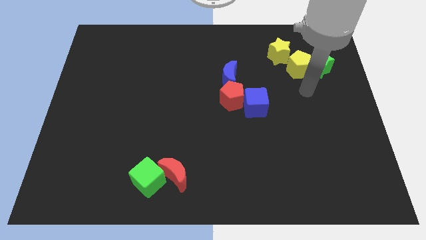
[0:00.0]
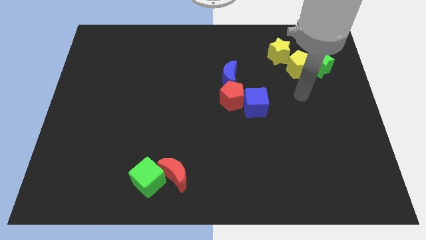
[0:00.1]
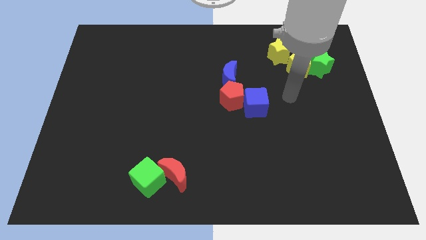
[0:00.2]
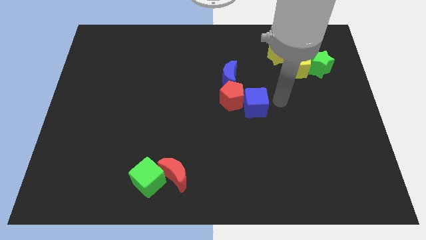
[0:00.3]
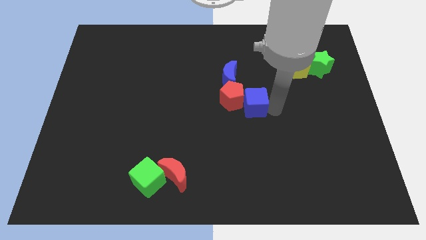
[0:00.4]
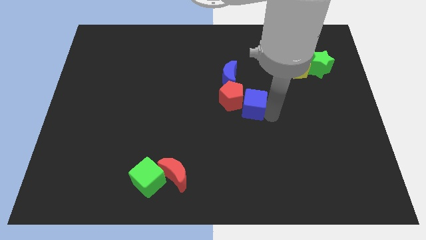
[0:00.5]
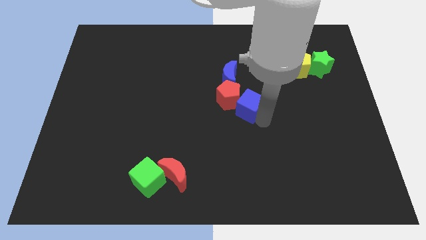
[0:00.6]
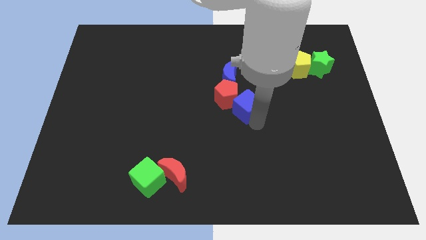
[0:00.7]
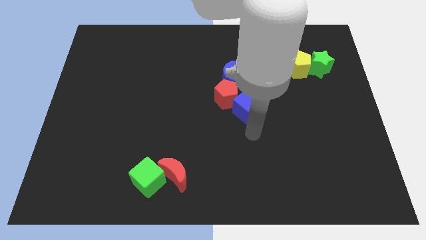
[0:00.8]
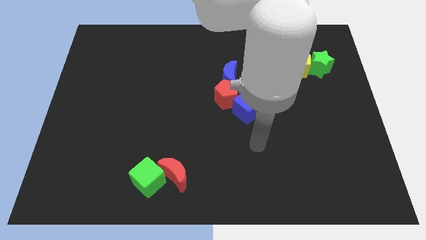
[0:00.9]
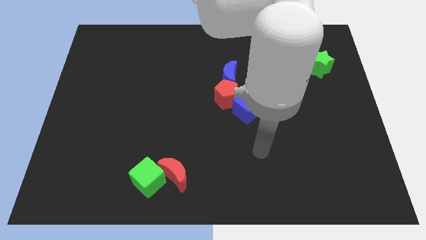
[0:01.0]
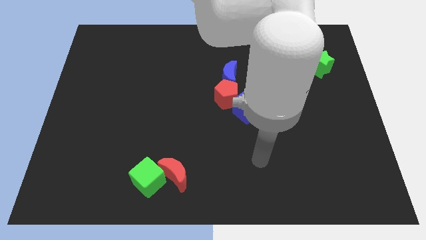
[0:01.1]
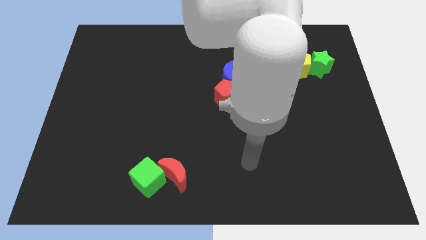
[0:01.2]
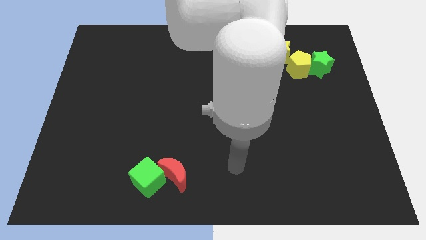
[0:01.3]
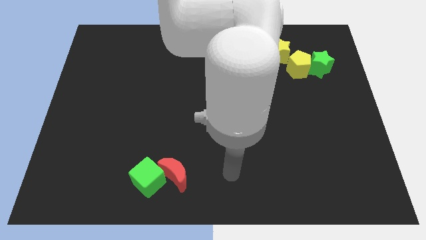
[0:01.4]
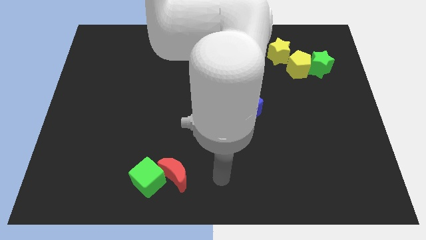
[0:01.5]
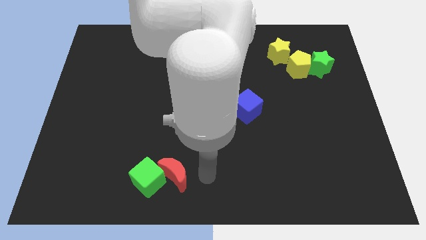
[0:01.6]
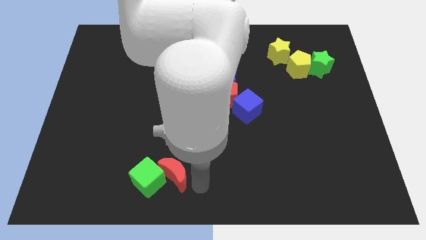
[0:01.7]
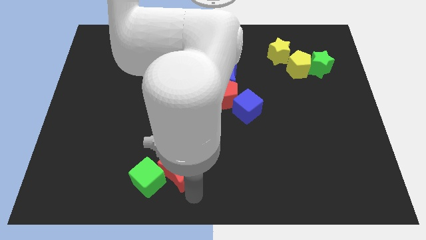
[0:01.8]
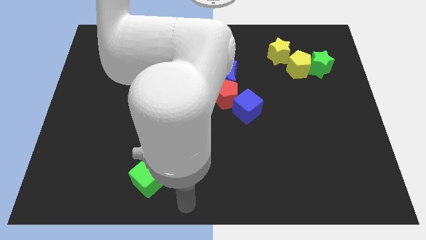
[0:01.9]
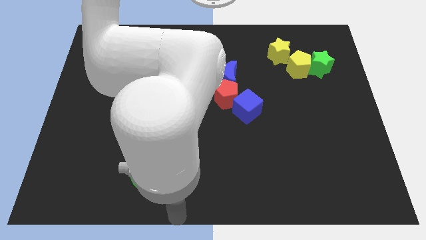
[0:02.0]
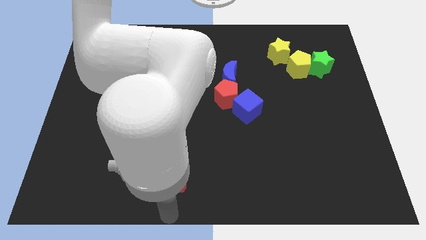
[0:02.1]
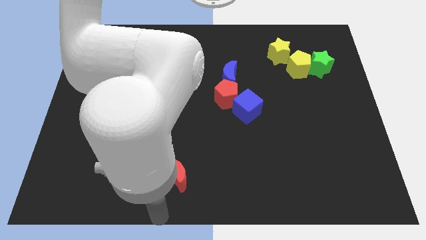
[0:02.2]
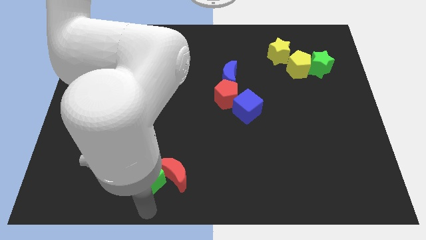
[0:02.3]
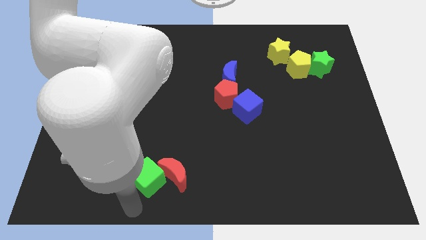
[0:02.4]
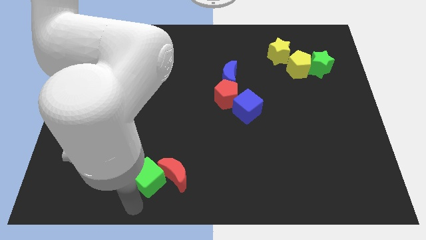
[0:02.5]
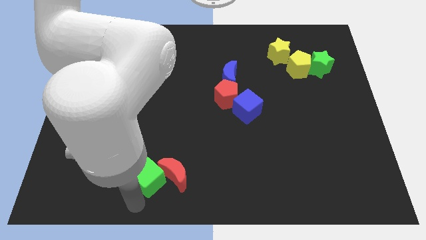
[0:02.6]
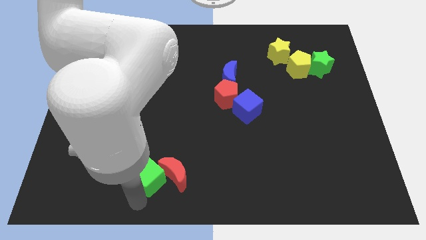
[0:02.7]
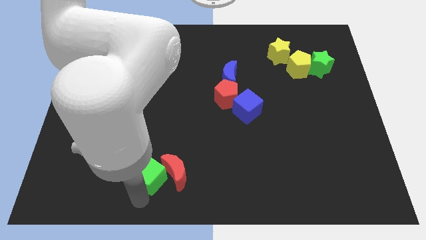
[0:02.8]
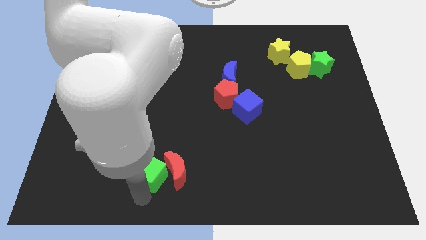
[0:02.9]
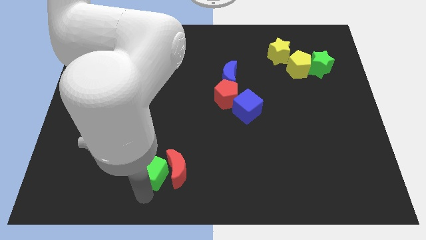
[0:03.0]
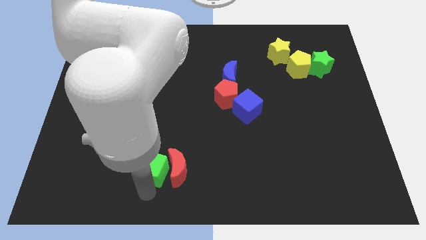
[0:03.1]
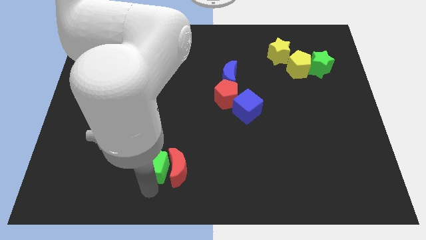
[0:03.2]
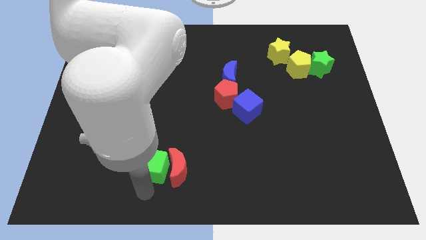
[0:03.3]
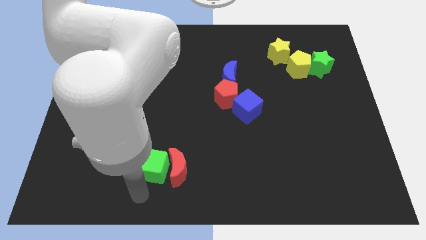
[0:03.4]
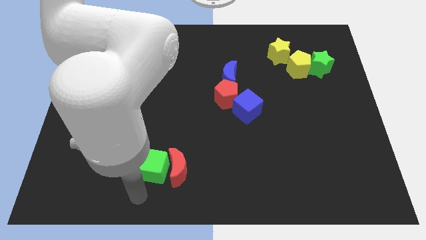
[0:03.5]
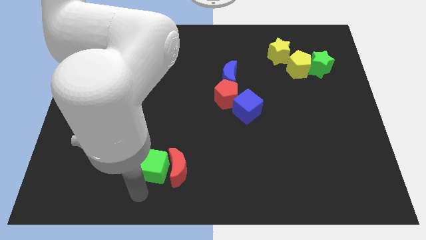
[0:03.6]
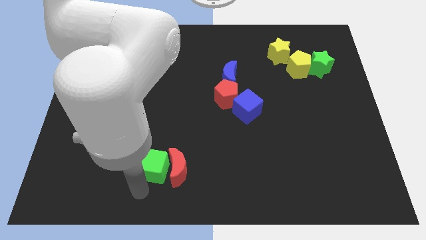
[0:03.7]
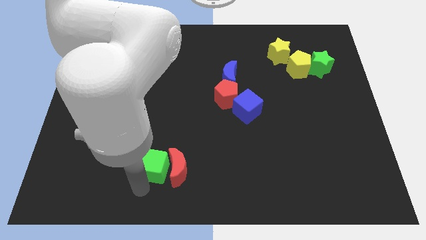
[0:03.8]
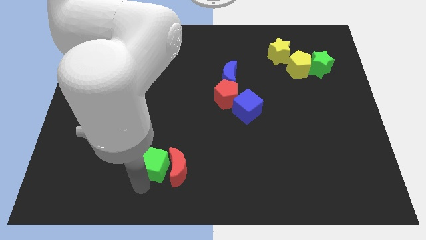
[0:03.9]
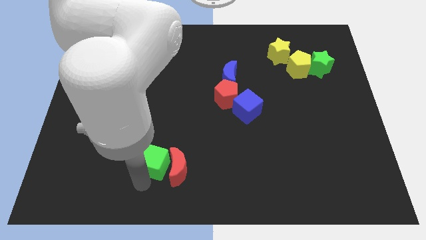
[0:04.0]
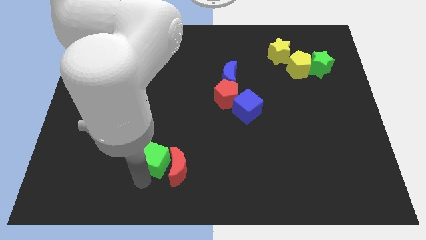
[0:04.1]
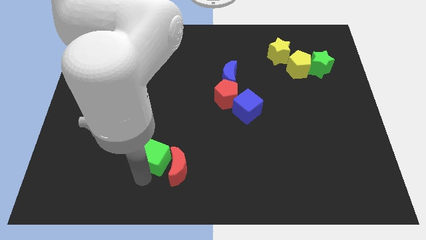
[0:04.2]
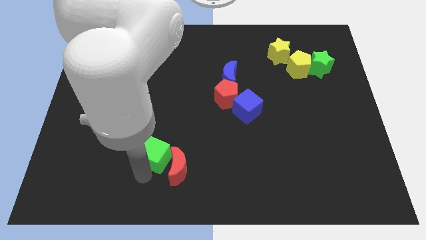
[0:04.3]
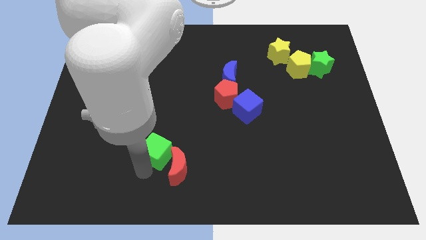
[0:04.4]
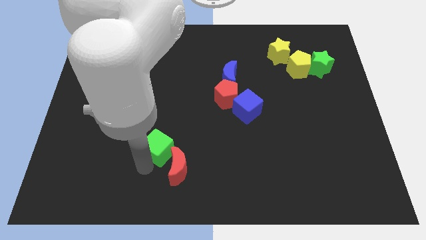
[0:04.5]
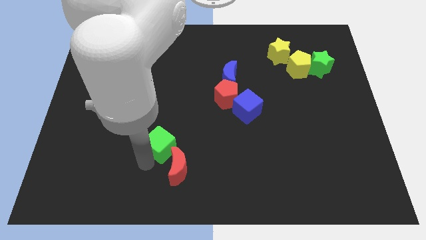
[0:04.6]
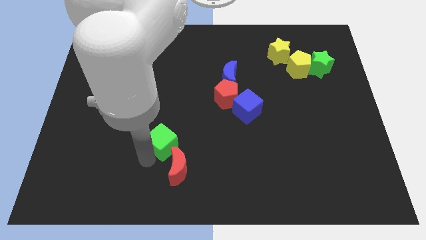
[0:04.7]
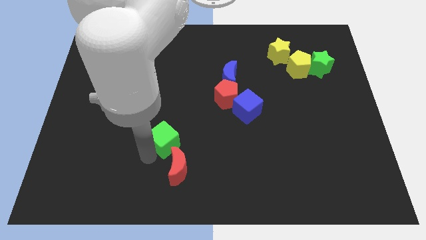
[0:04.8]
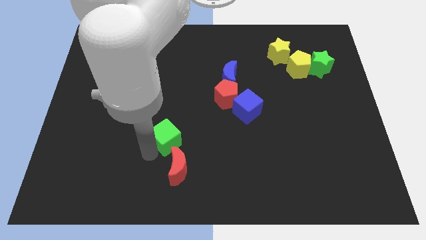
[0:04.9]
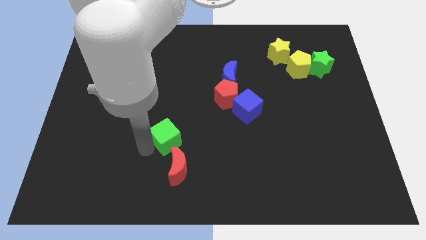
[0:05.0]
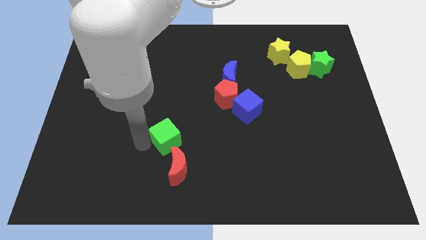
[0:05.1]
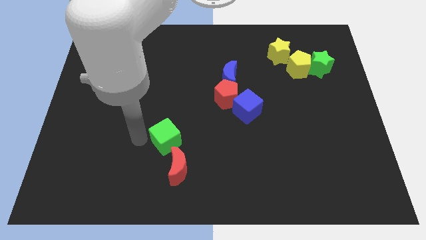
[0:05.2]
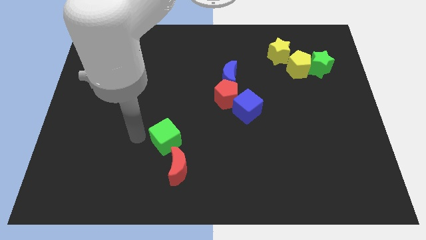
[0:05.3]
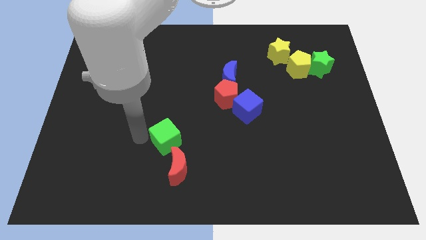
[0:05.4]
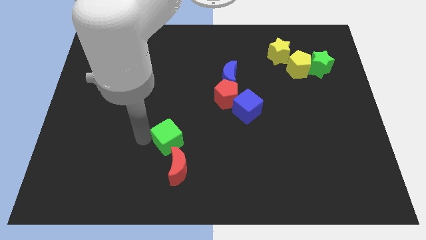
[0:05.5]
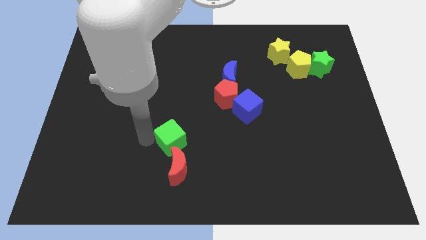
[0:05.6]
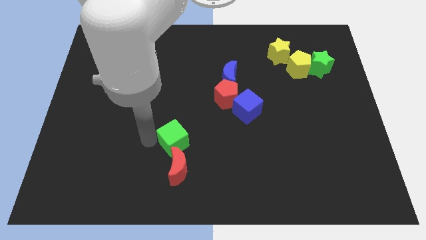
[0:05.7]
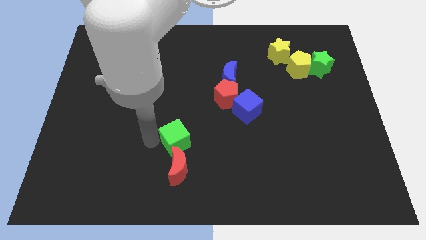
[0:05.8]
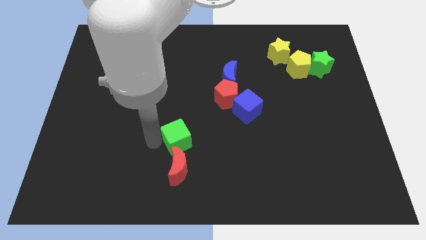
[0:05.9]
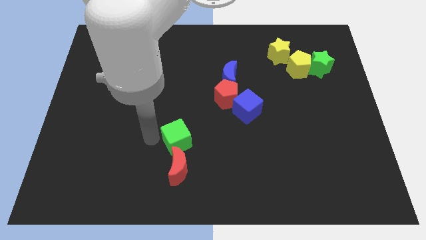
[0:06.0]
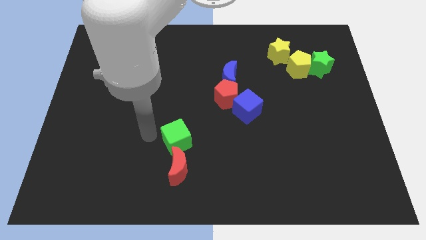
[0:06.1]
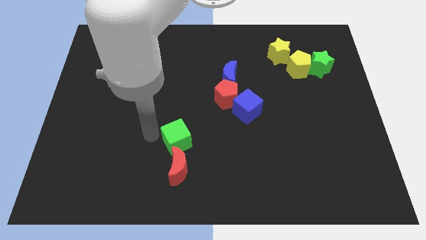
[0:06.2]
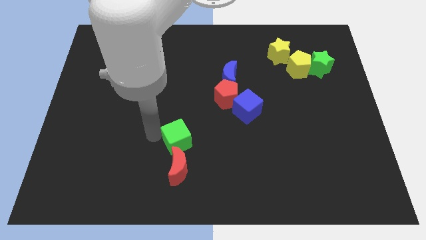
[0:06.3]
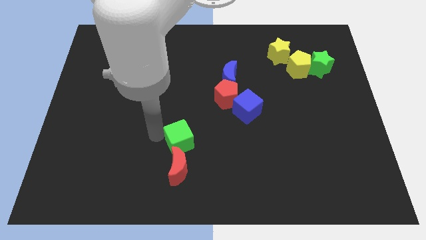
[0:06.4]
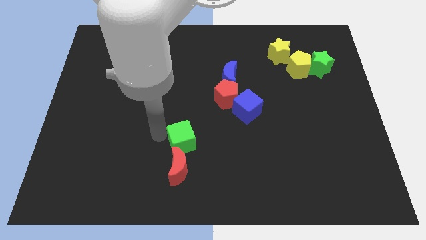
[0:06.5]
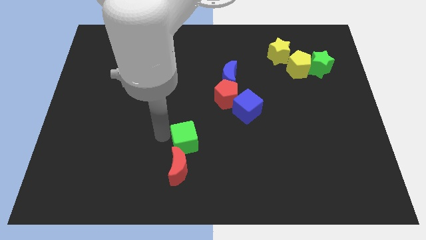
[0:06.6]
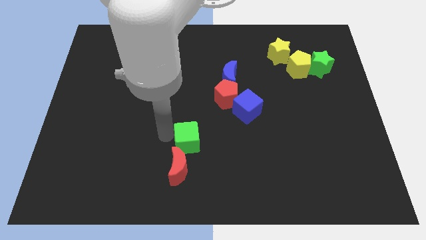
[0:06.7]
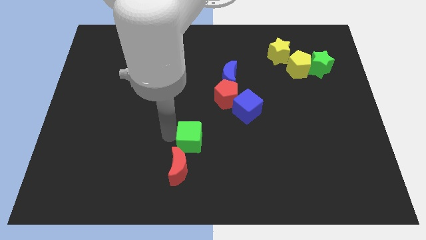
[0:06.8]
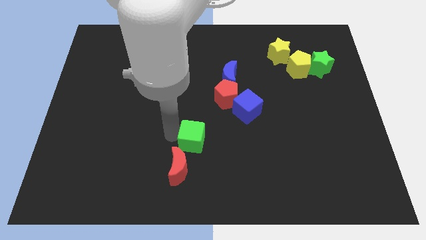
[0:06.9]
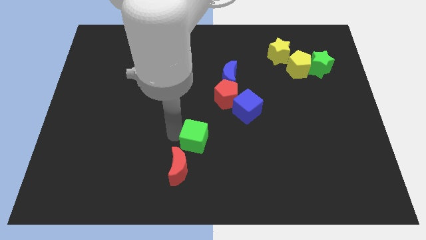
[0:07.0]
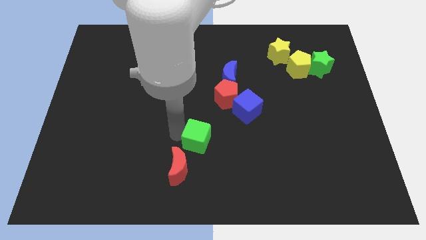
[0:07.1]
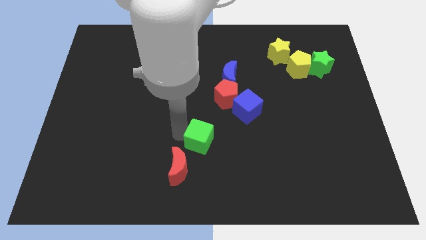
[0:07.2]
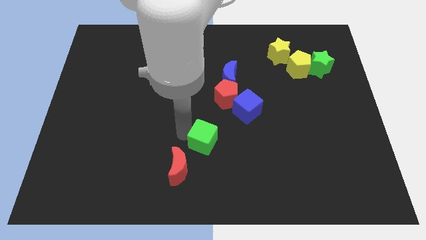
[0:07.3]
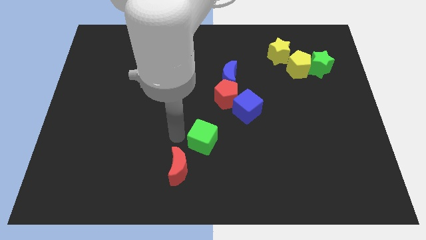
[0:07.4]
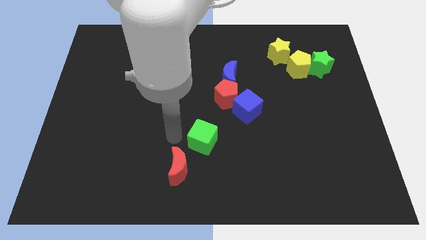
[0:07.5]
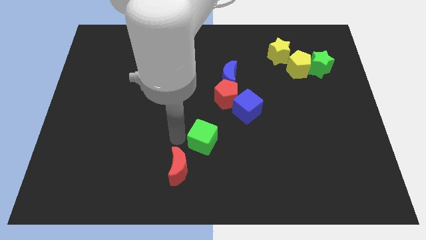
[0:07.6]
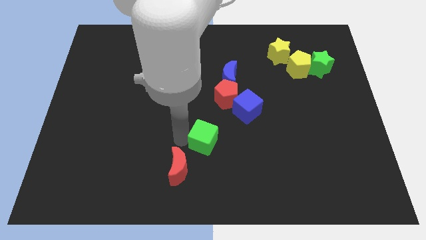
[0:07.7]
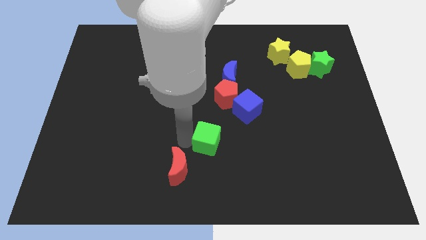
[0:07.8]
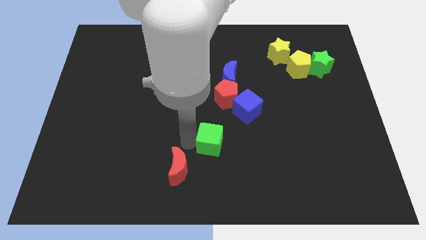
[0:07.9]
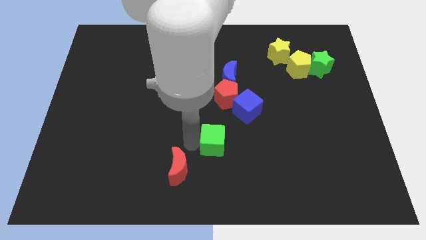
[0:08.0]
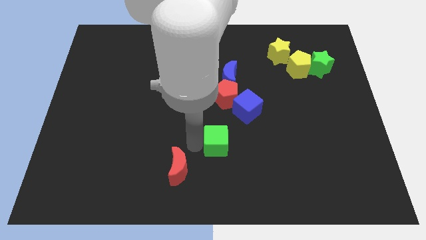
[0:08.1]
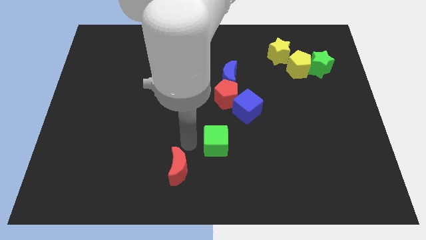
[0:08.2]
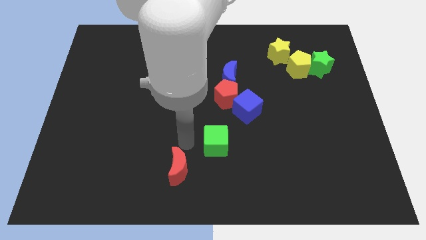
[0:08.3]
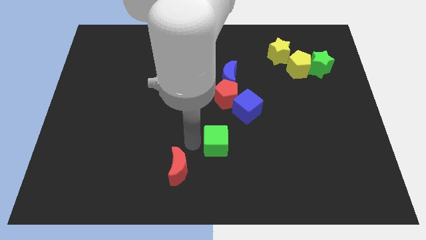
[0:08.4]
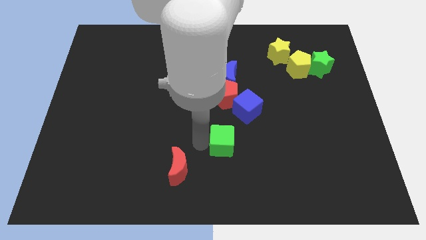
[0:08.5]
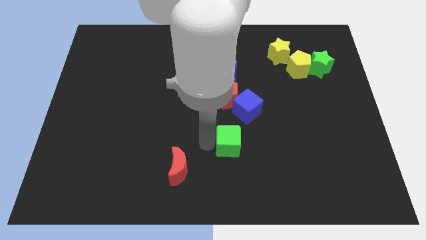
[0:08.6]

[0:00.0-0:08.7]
slide the green cube to the bottom side of the blue cube
